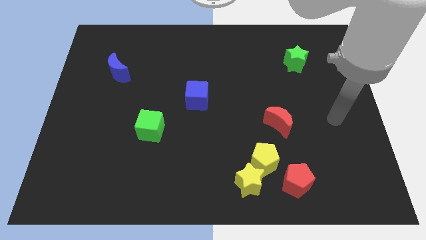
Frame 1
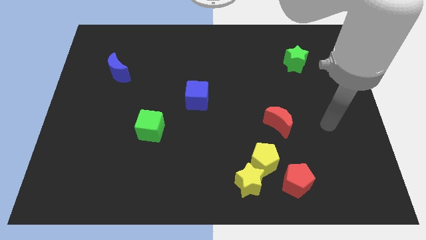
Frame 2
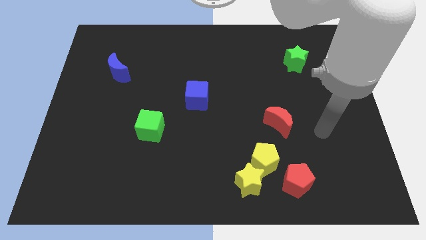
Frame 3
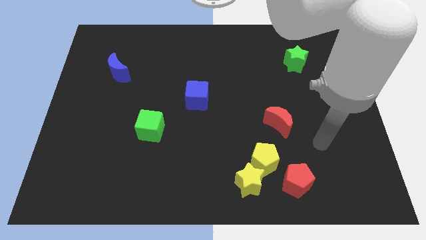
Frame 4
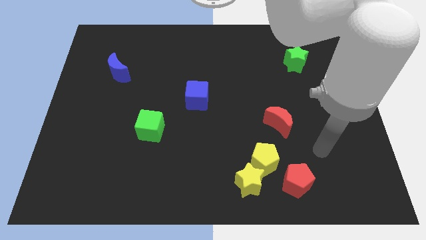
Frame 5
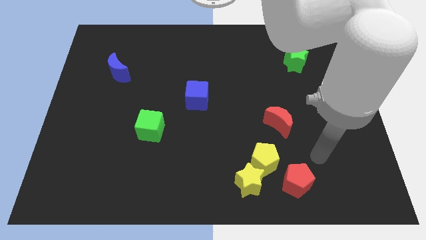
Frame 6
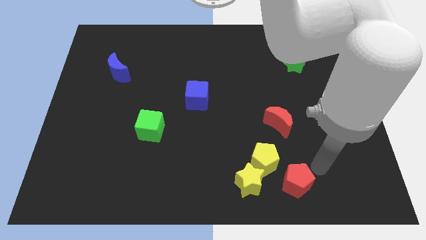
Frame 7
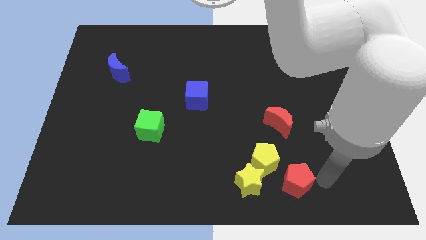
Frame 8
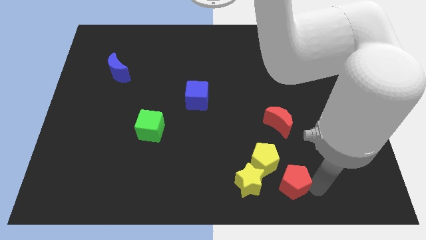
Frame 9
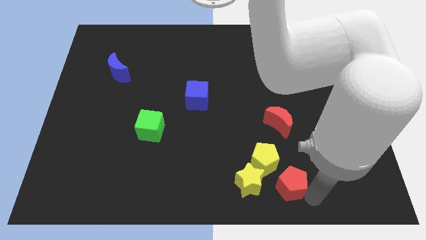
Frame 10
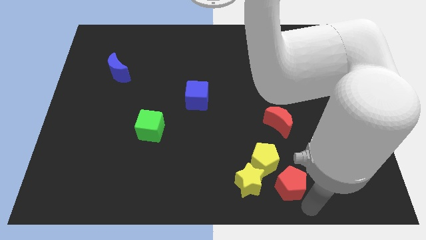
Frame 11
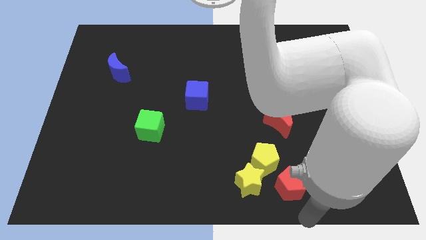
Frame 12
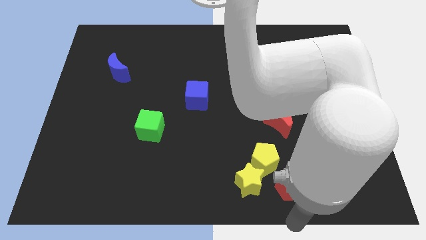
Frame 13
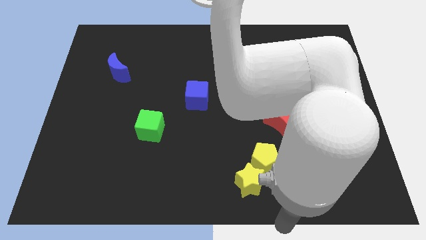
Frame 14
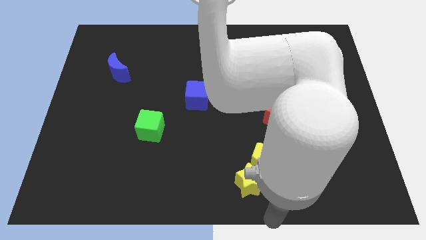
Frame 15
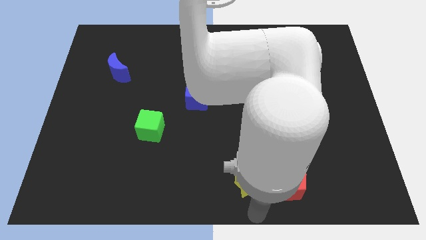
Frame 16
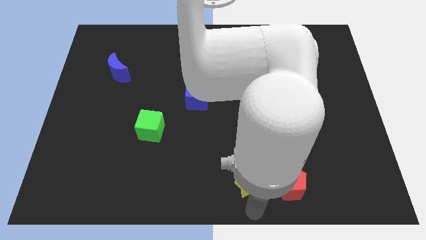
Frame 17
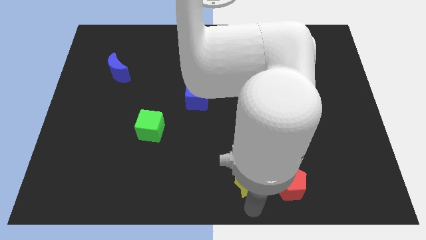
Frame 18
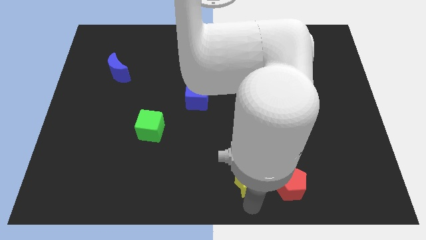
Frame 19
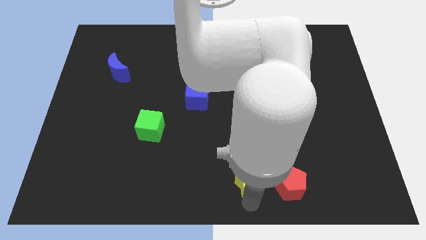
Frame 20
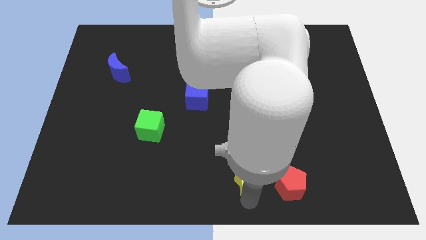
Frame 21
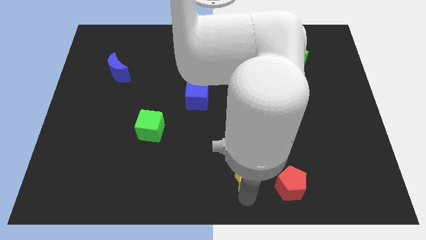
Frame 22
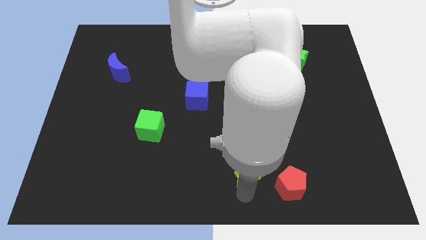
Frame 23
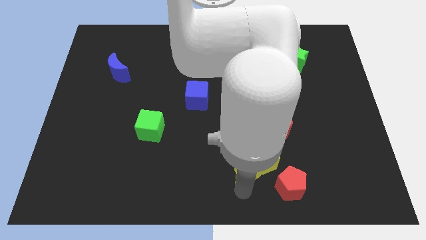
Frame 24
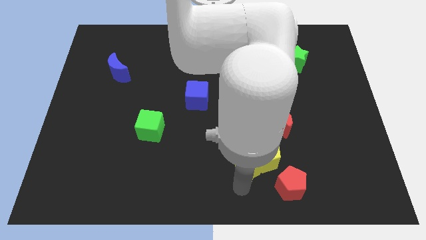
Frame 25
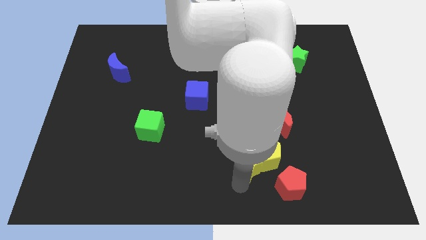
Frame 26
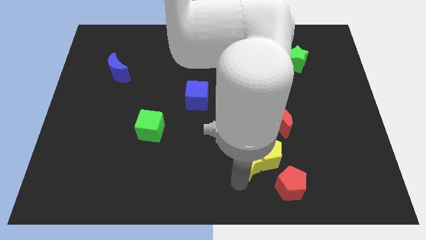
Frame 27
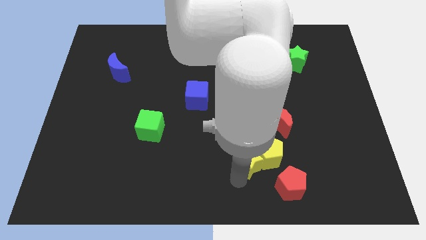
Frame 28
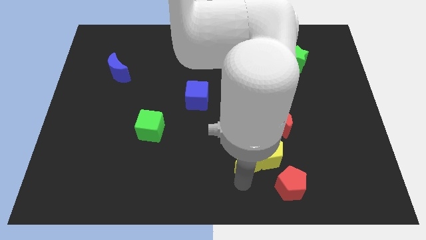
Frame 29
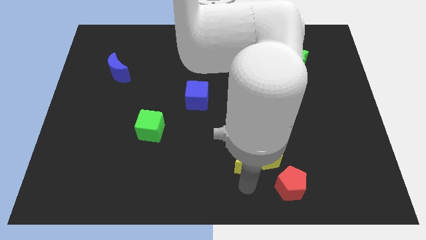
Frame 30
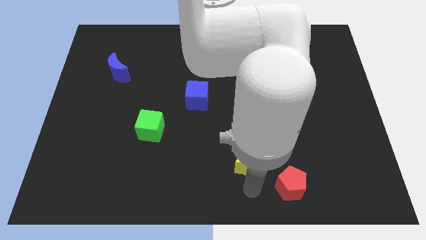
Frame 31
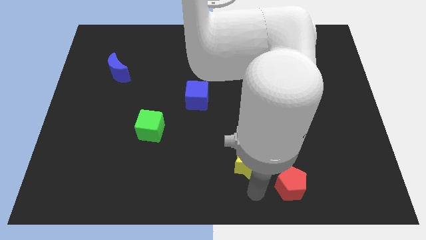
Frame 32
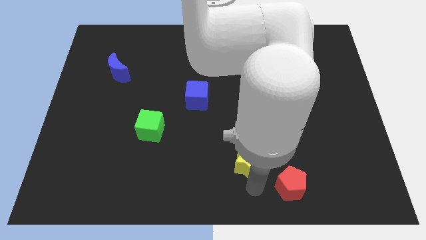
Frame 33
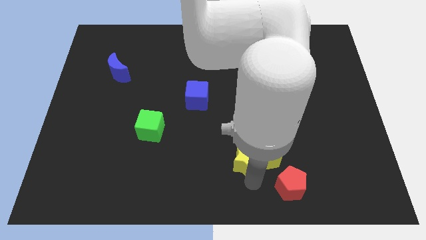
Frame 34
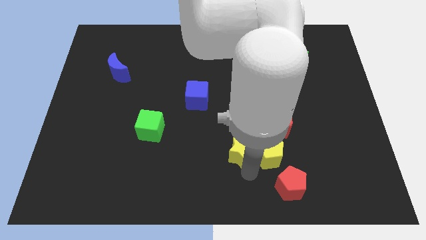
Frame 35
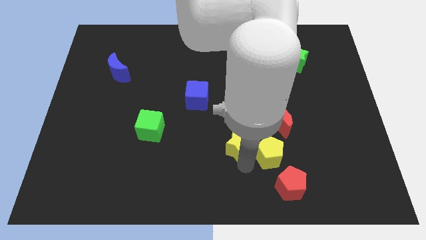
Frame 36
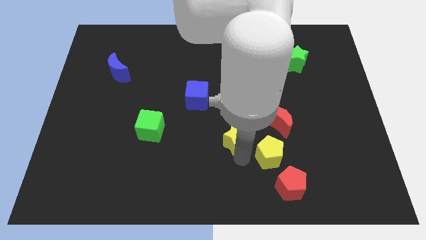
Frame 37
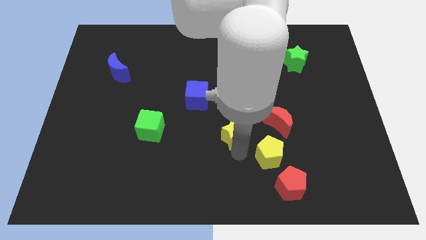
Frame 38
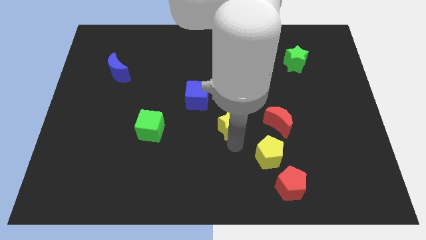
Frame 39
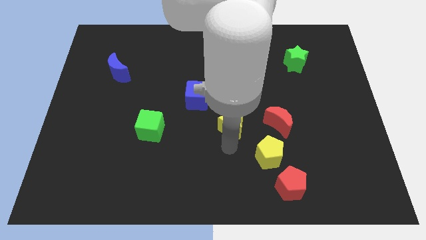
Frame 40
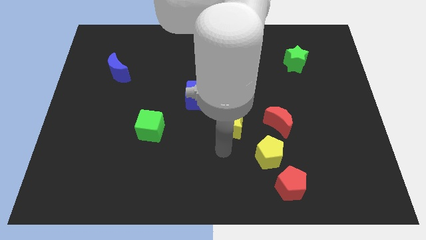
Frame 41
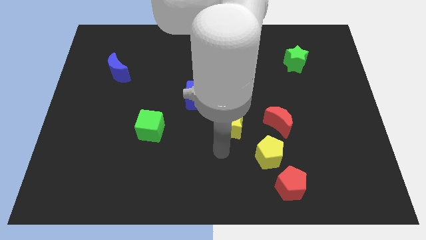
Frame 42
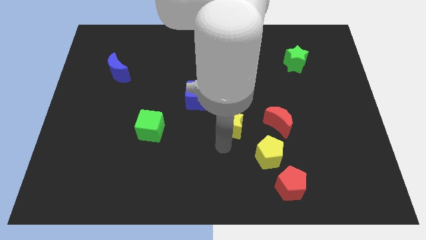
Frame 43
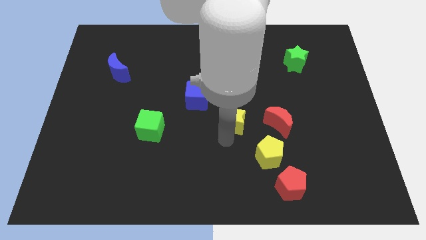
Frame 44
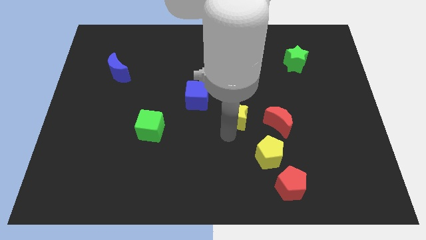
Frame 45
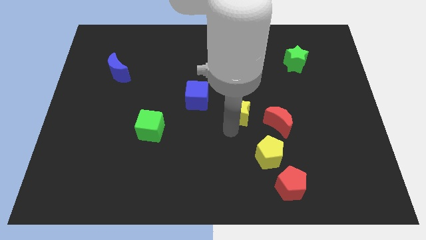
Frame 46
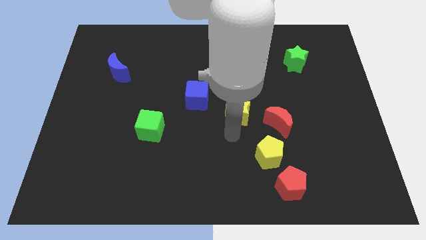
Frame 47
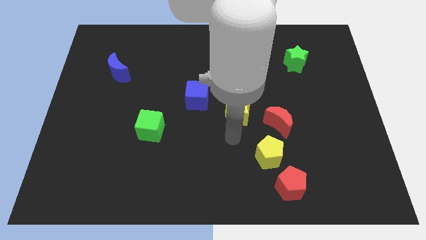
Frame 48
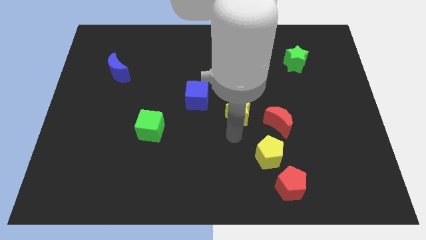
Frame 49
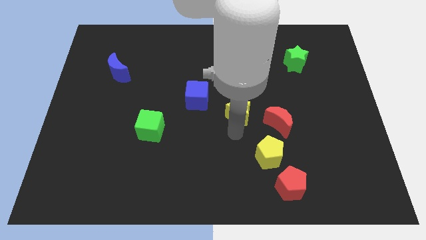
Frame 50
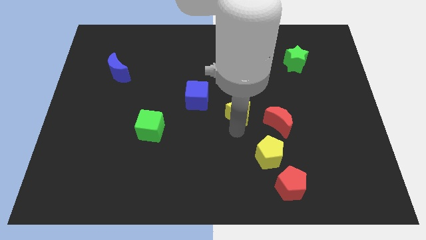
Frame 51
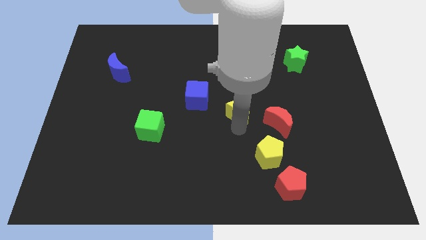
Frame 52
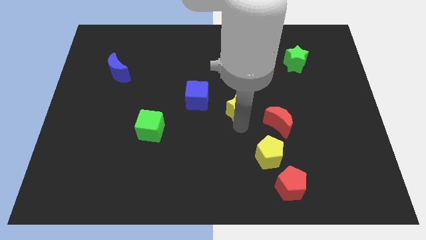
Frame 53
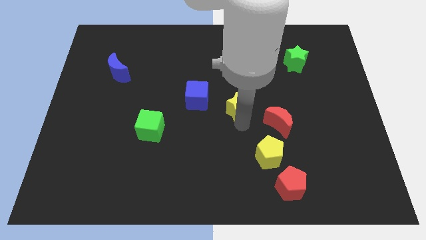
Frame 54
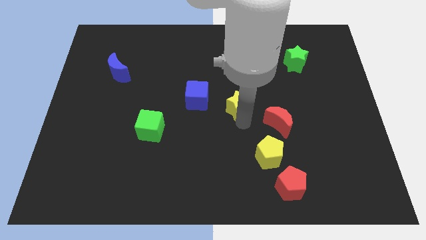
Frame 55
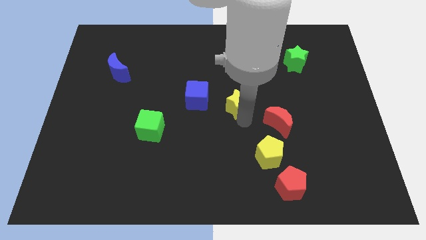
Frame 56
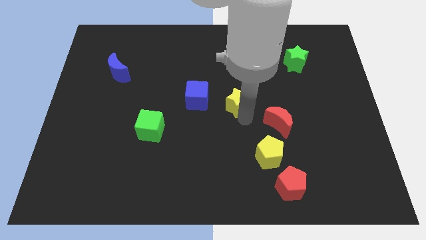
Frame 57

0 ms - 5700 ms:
move the yellow star up

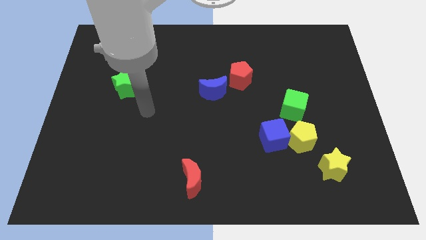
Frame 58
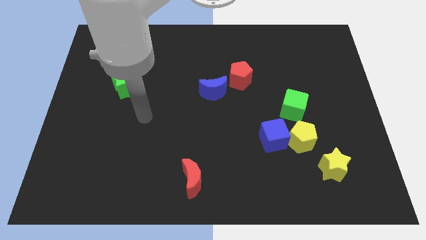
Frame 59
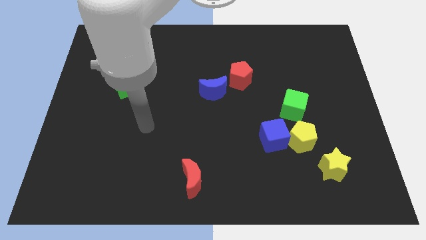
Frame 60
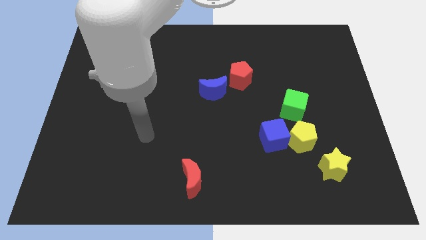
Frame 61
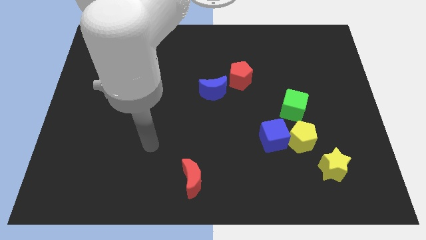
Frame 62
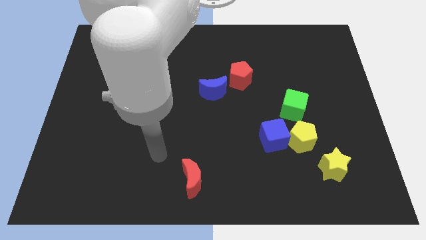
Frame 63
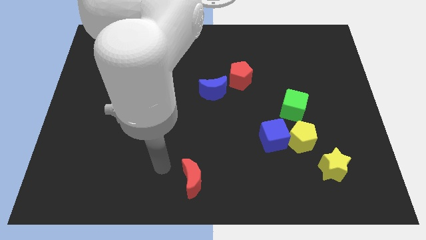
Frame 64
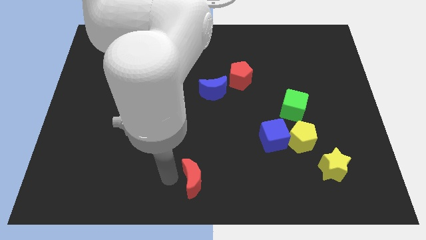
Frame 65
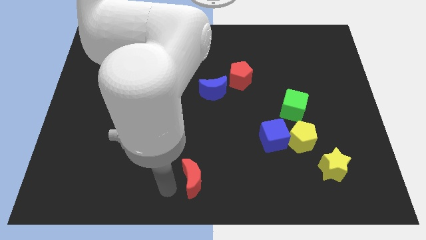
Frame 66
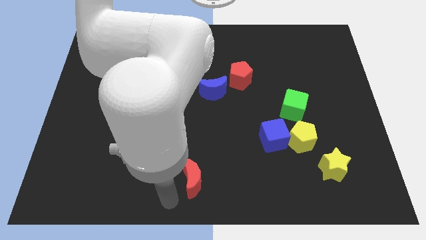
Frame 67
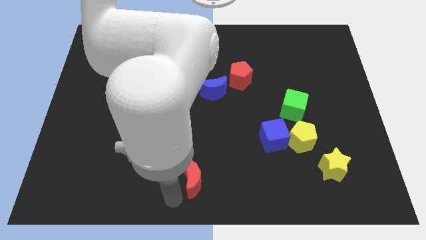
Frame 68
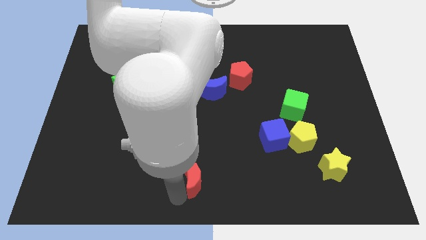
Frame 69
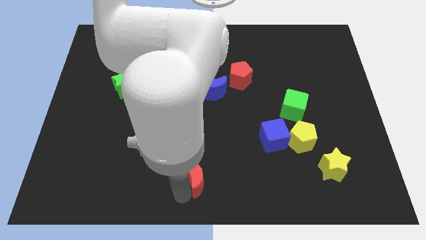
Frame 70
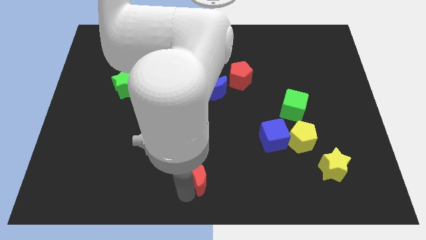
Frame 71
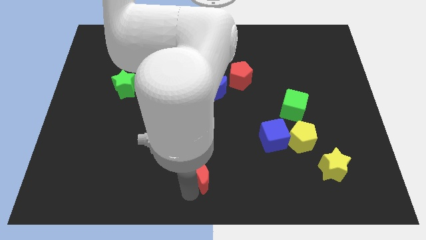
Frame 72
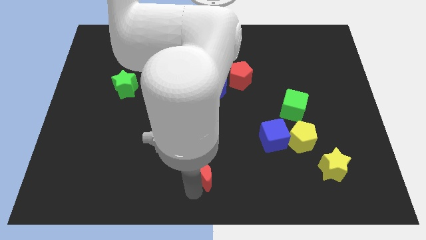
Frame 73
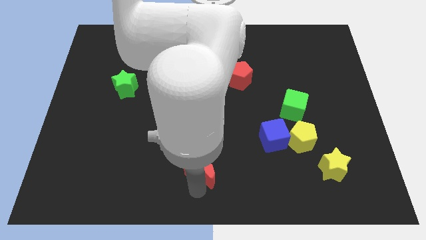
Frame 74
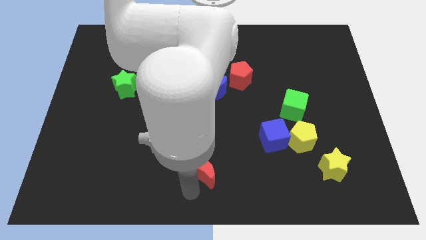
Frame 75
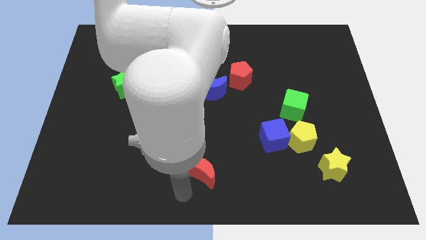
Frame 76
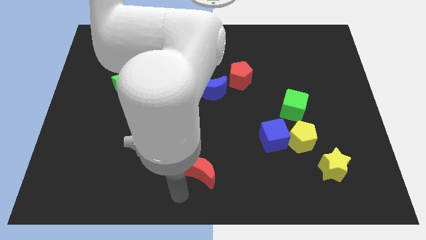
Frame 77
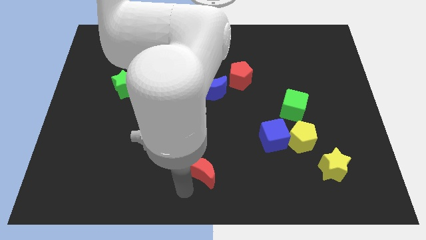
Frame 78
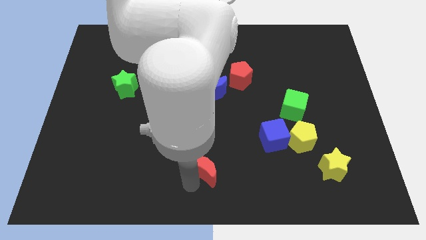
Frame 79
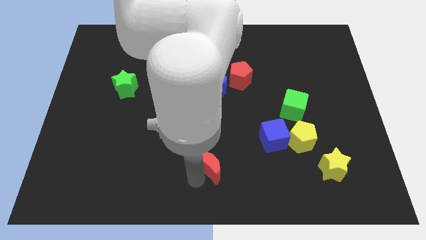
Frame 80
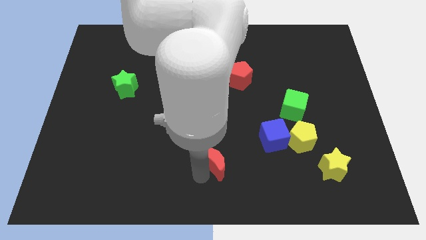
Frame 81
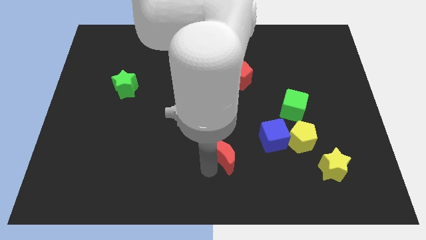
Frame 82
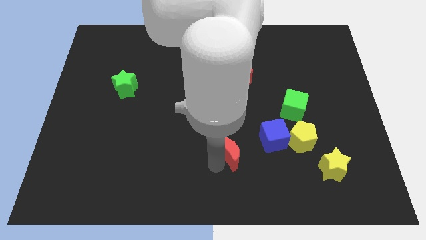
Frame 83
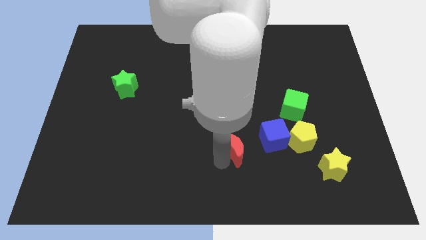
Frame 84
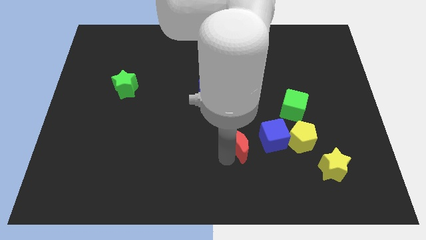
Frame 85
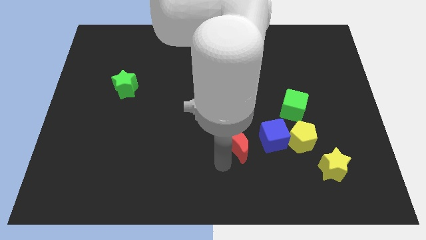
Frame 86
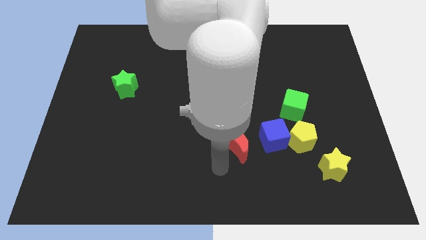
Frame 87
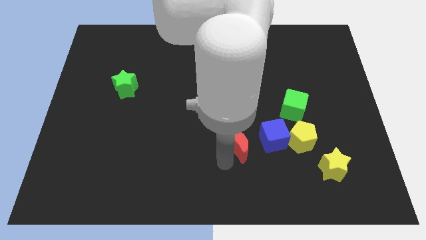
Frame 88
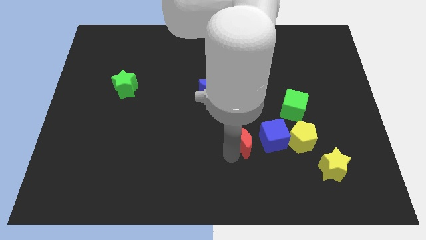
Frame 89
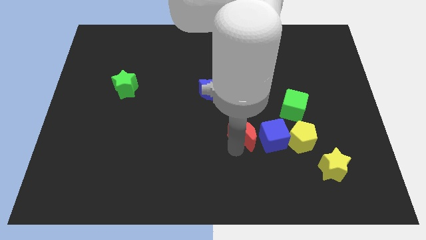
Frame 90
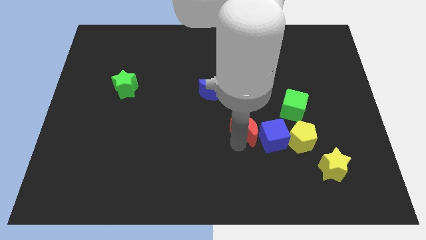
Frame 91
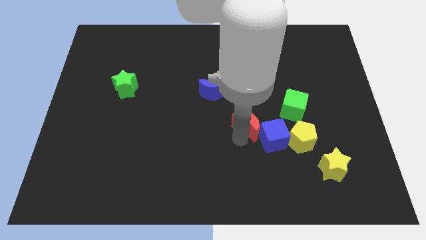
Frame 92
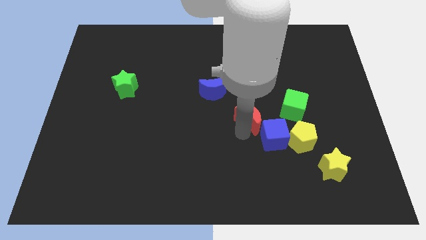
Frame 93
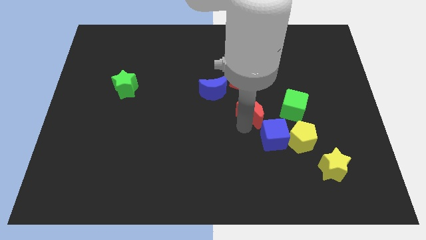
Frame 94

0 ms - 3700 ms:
push the red moon diagonally upwards and to the right
